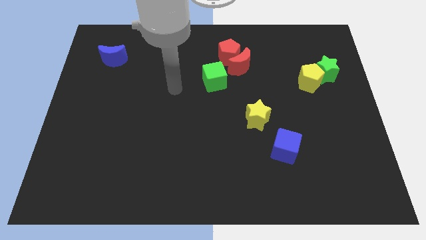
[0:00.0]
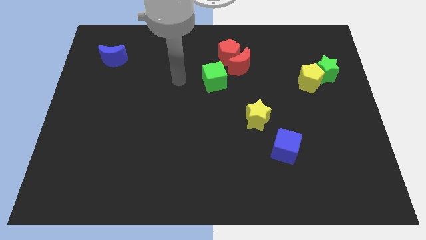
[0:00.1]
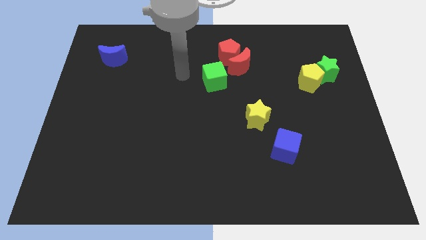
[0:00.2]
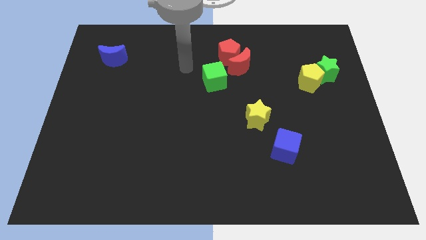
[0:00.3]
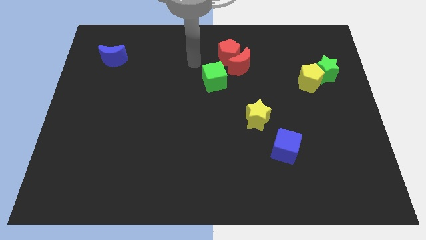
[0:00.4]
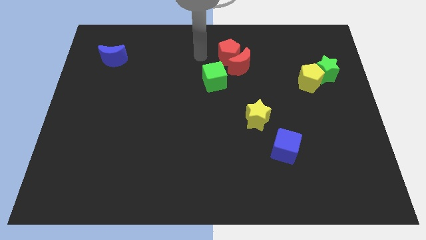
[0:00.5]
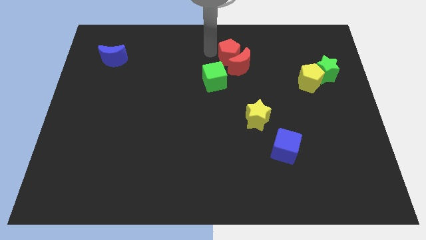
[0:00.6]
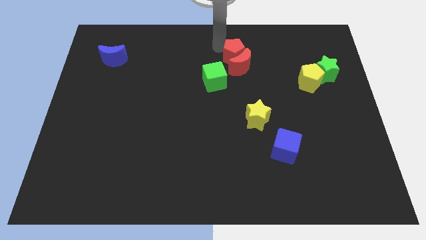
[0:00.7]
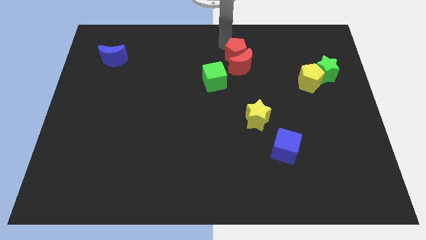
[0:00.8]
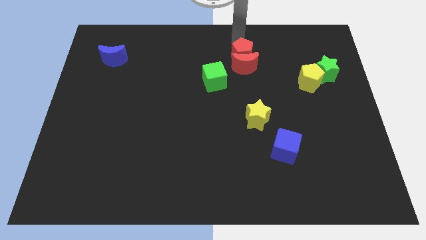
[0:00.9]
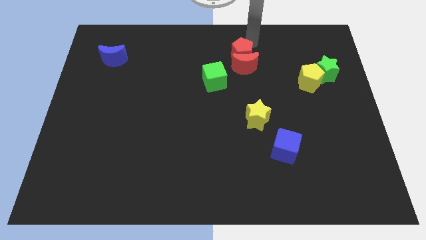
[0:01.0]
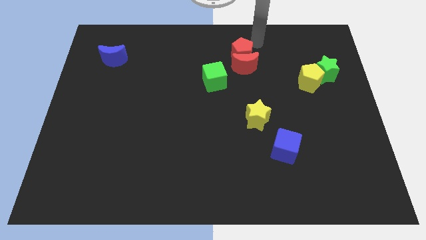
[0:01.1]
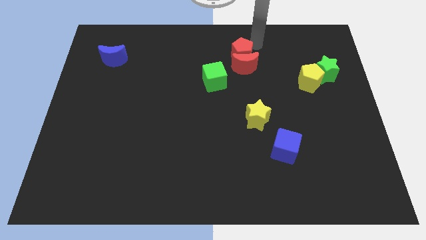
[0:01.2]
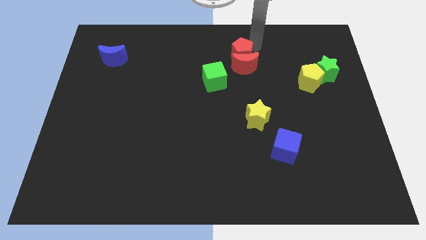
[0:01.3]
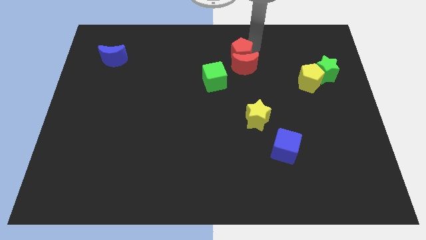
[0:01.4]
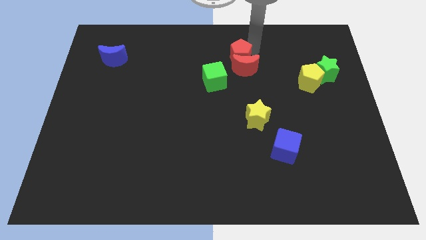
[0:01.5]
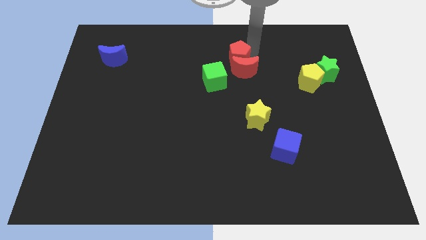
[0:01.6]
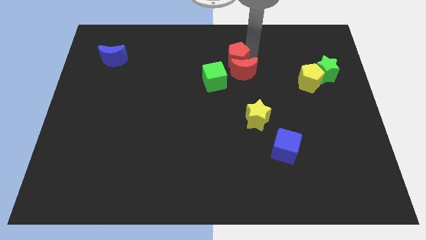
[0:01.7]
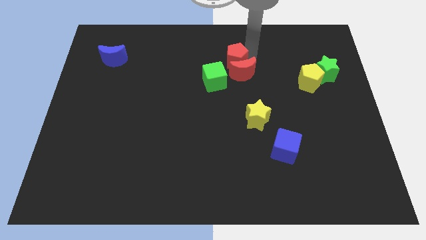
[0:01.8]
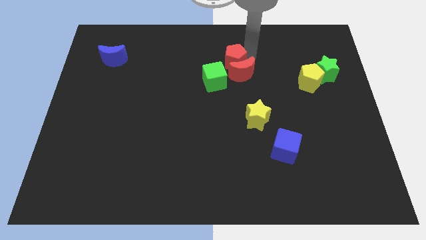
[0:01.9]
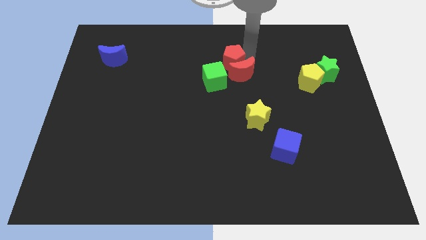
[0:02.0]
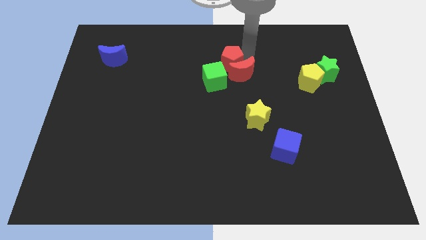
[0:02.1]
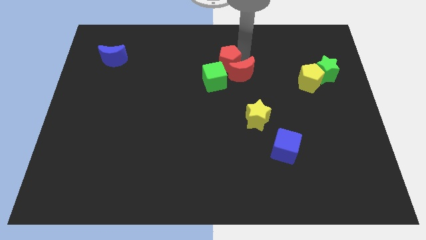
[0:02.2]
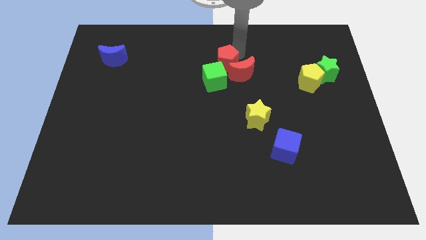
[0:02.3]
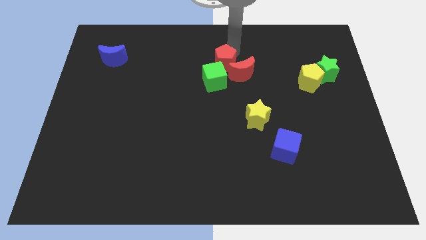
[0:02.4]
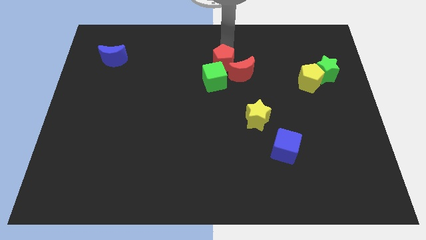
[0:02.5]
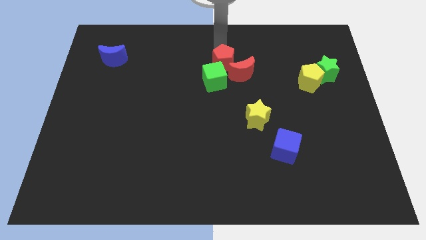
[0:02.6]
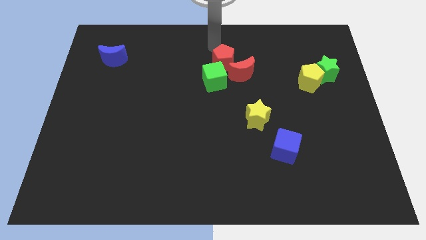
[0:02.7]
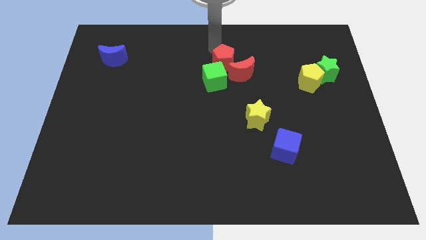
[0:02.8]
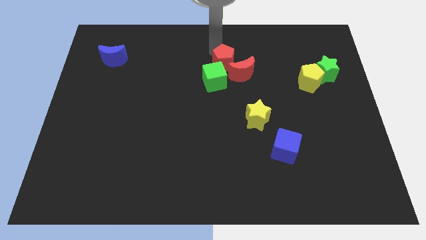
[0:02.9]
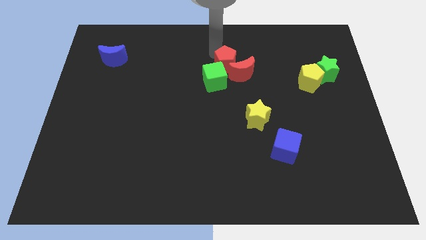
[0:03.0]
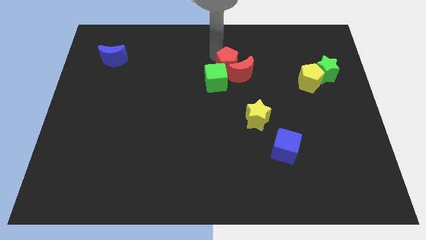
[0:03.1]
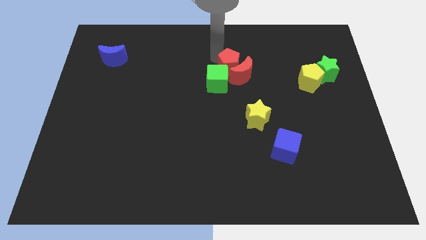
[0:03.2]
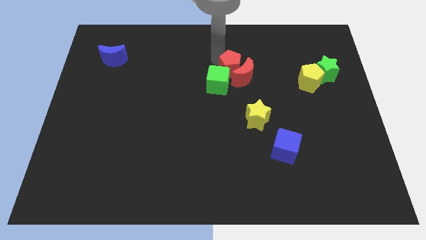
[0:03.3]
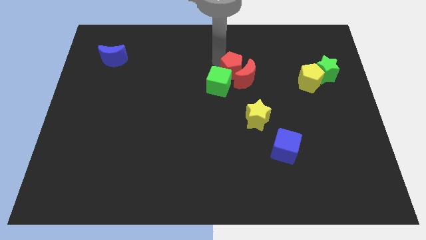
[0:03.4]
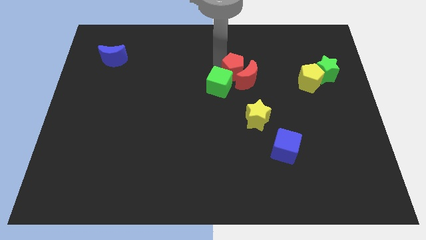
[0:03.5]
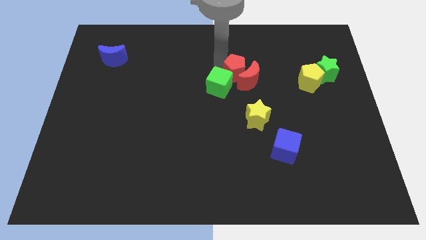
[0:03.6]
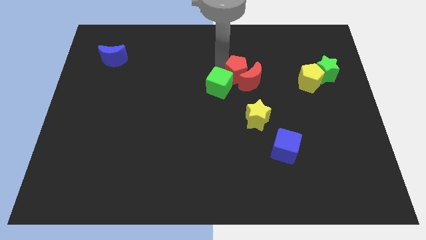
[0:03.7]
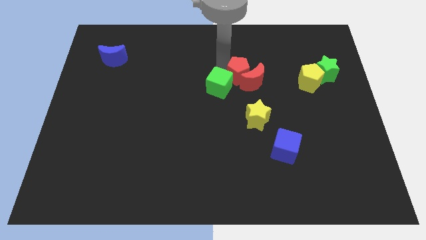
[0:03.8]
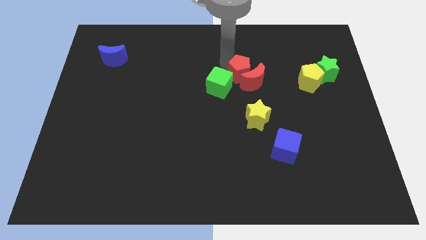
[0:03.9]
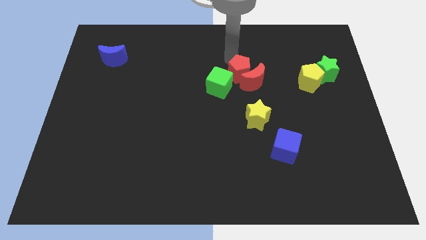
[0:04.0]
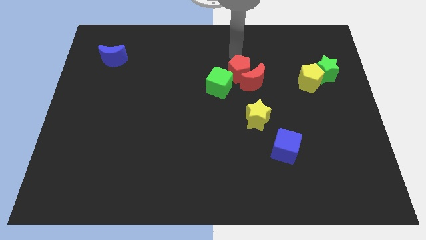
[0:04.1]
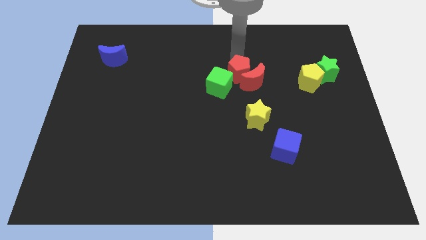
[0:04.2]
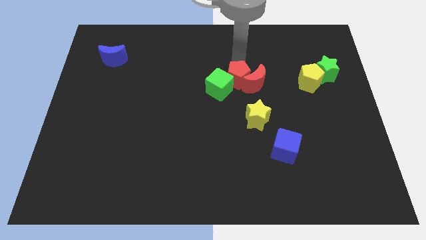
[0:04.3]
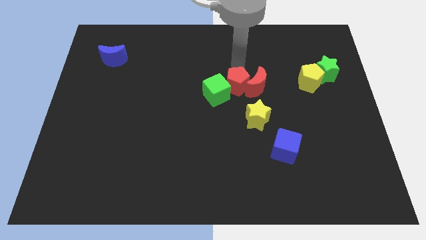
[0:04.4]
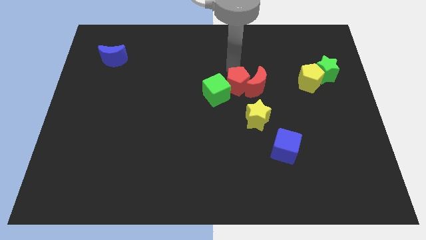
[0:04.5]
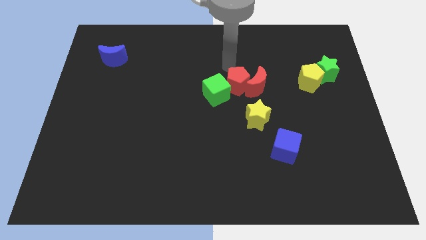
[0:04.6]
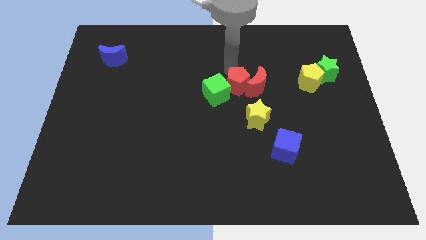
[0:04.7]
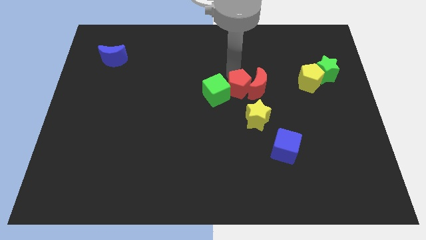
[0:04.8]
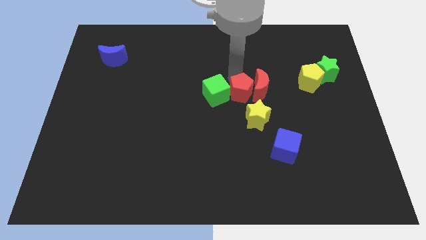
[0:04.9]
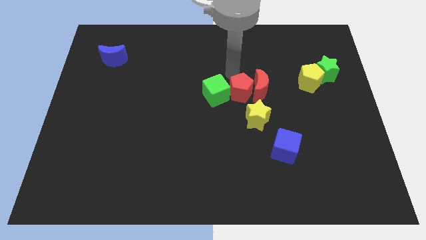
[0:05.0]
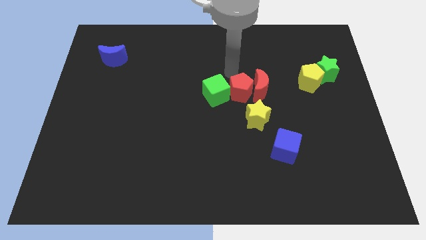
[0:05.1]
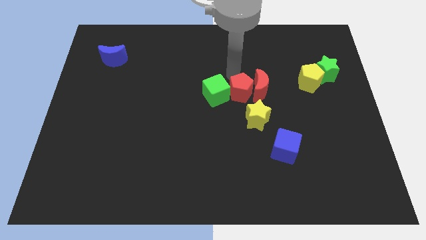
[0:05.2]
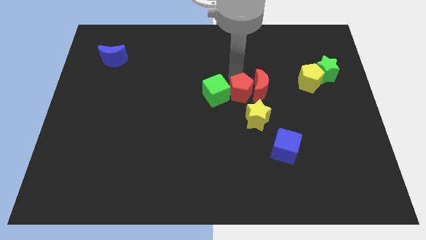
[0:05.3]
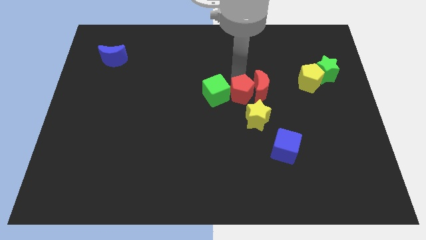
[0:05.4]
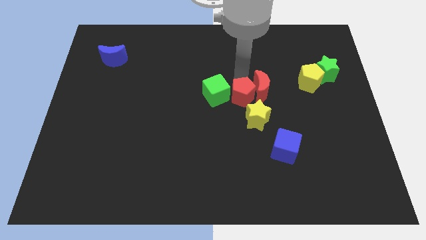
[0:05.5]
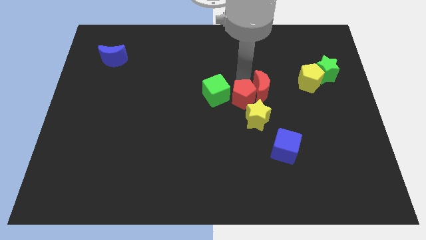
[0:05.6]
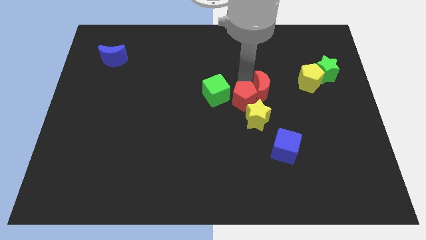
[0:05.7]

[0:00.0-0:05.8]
slide the red pentagon next to the yellow star
